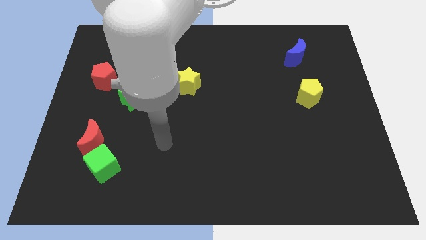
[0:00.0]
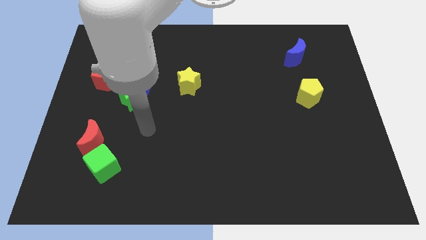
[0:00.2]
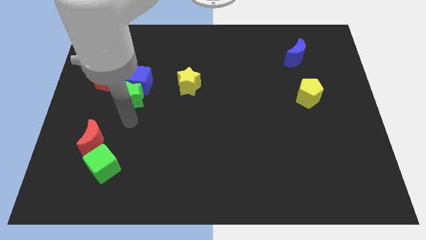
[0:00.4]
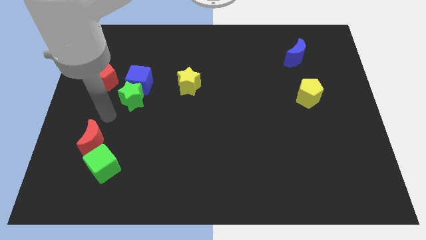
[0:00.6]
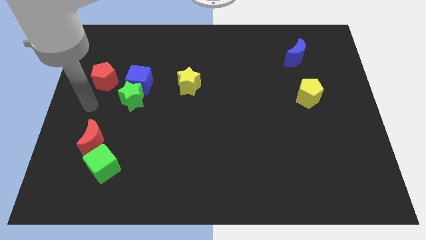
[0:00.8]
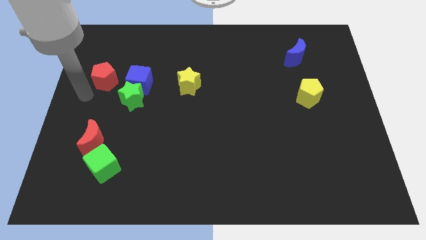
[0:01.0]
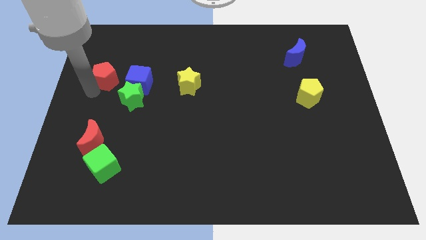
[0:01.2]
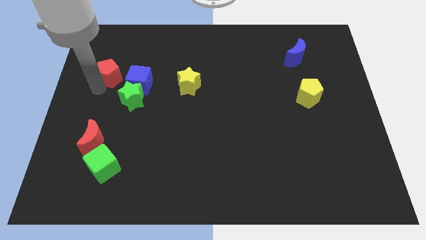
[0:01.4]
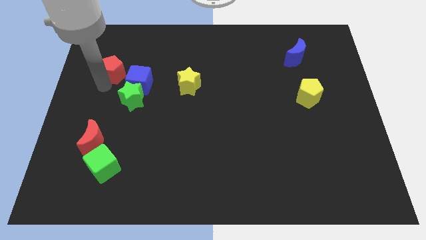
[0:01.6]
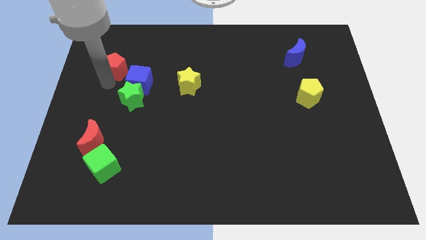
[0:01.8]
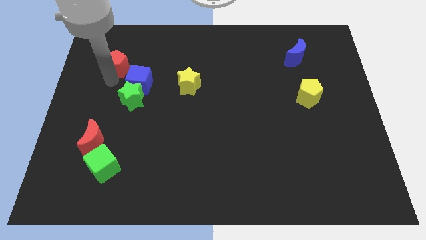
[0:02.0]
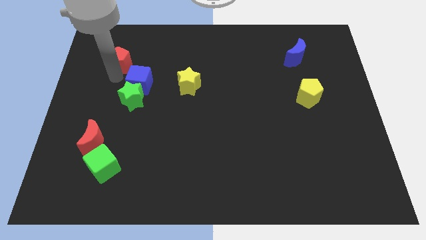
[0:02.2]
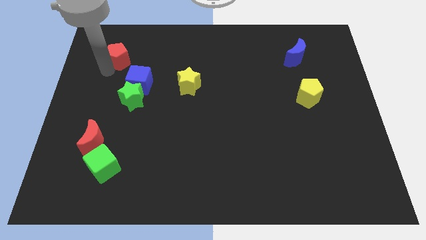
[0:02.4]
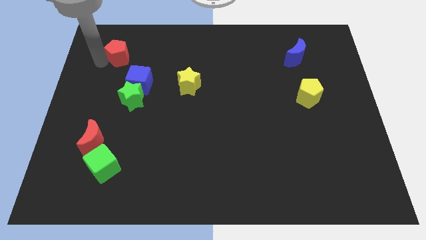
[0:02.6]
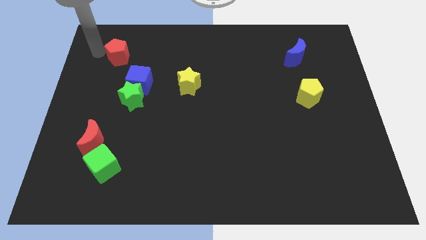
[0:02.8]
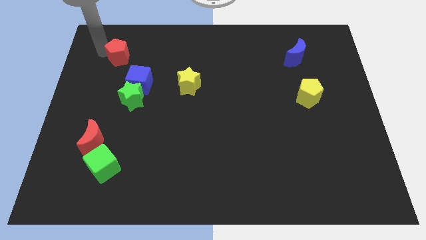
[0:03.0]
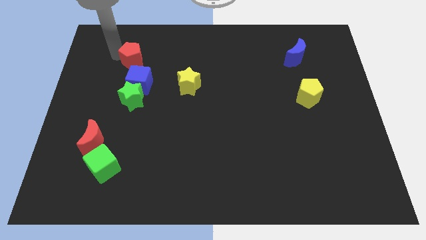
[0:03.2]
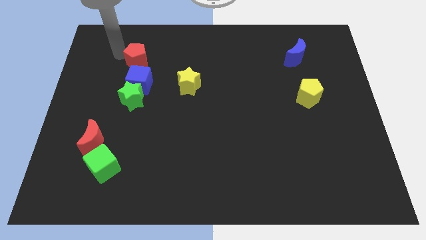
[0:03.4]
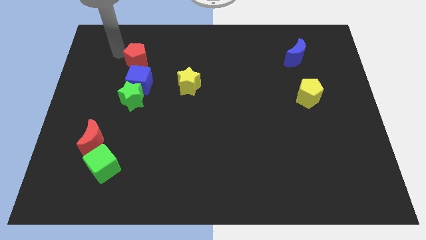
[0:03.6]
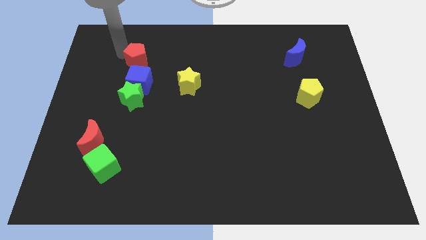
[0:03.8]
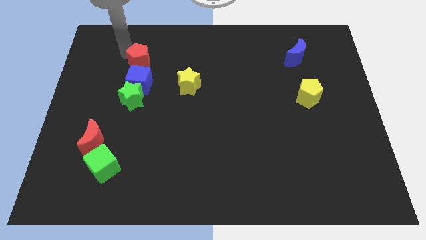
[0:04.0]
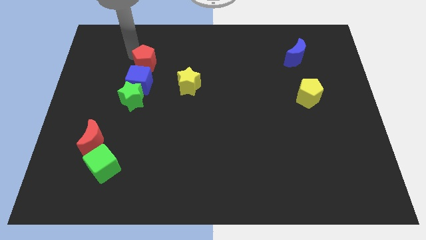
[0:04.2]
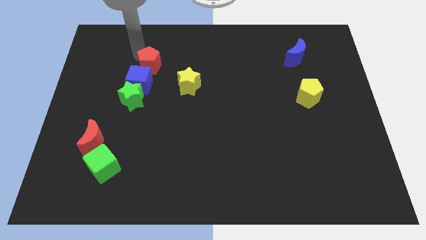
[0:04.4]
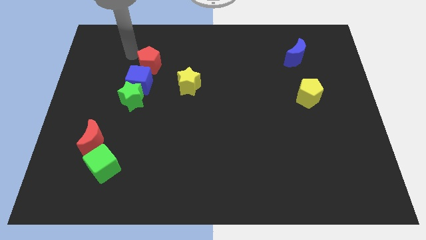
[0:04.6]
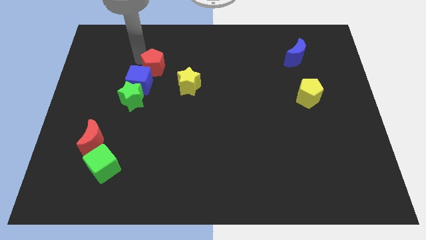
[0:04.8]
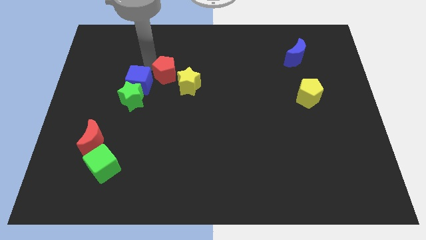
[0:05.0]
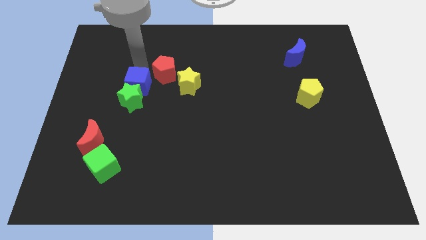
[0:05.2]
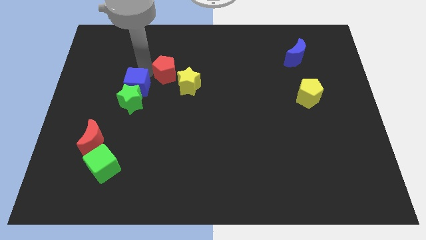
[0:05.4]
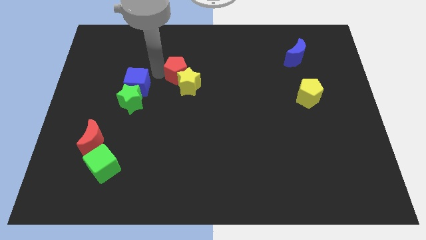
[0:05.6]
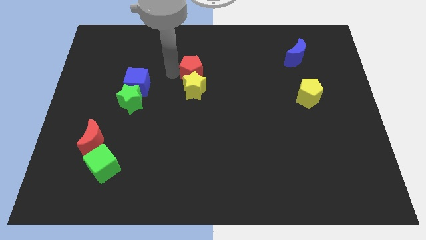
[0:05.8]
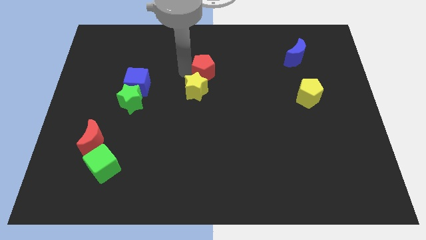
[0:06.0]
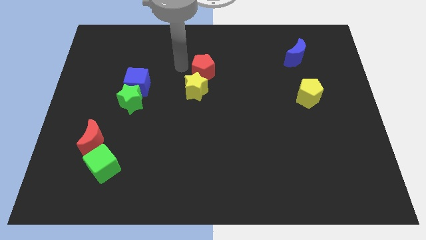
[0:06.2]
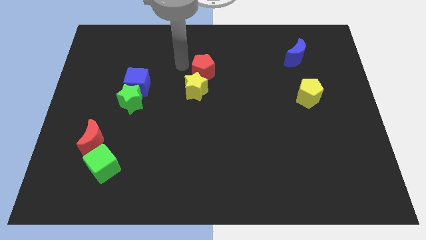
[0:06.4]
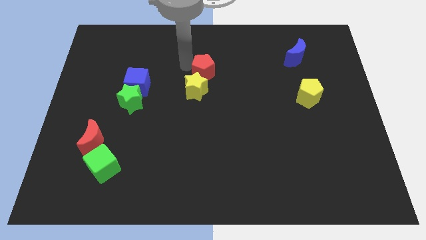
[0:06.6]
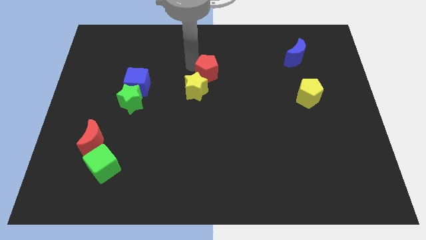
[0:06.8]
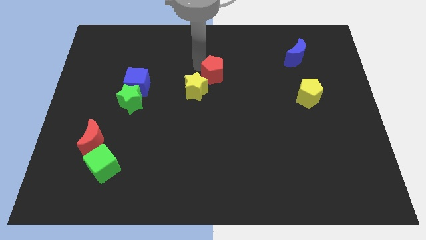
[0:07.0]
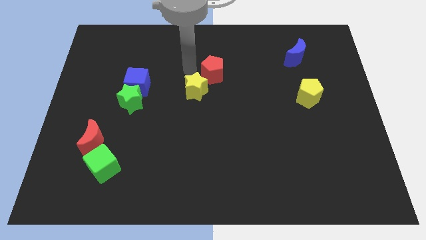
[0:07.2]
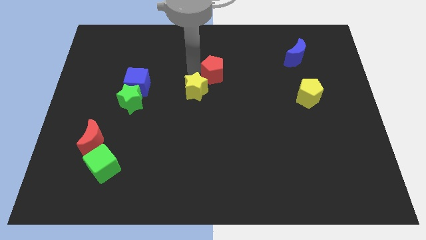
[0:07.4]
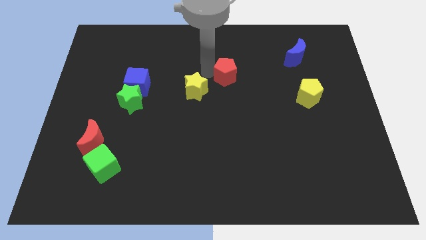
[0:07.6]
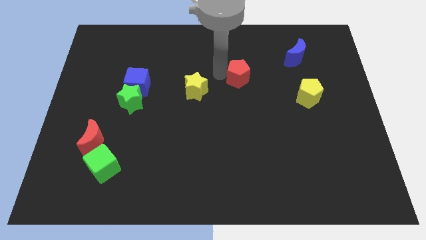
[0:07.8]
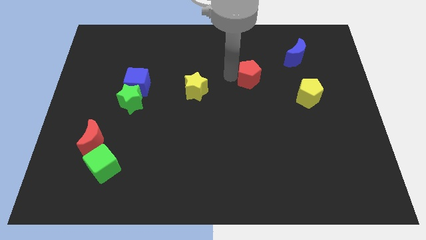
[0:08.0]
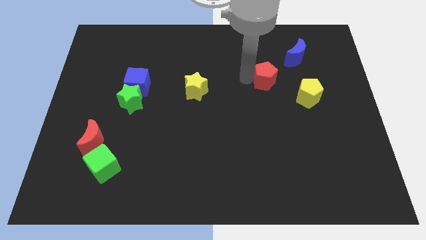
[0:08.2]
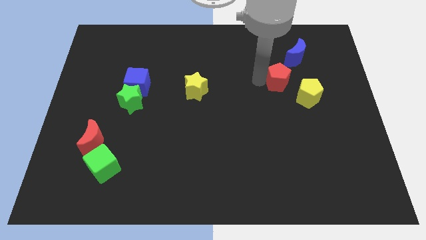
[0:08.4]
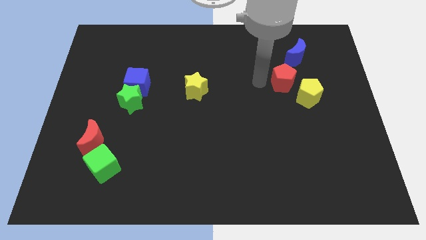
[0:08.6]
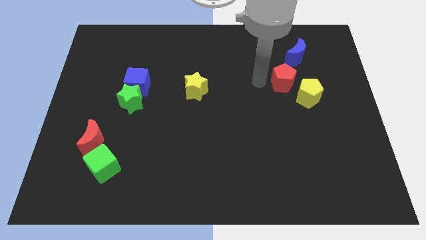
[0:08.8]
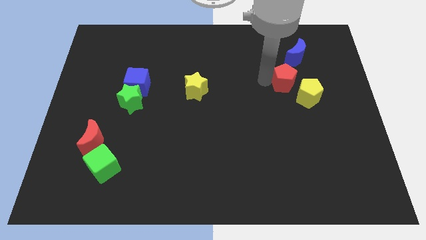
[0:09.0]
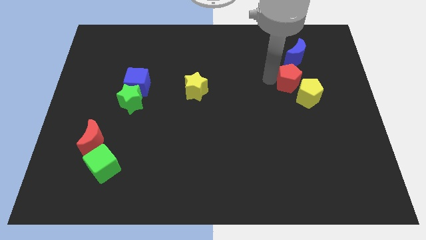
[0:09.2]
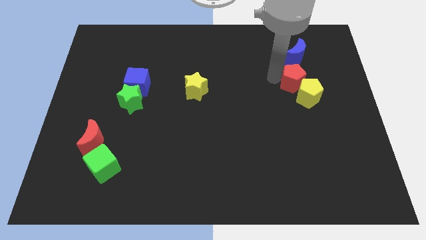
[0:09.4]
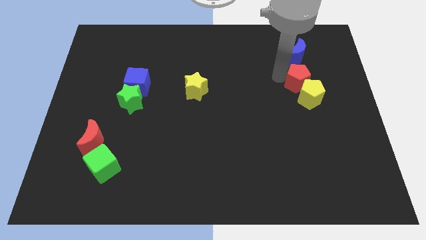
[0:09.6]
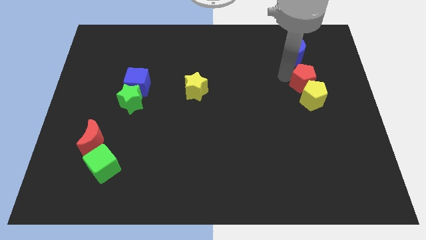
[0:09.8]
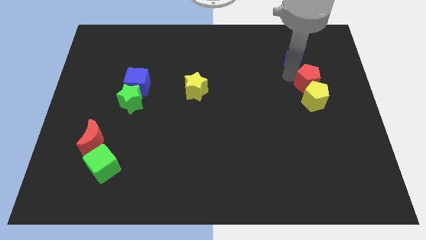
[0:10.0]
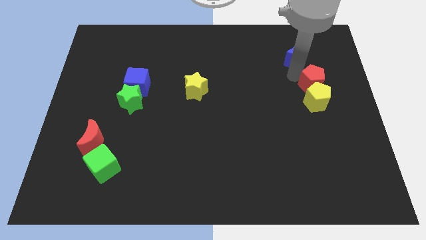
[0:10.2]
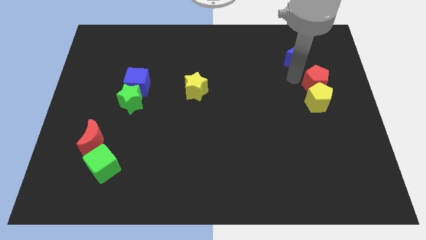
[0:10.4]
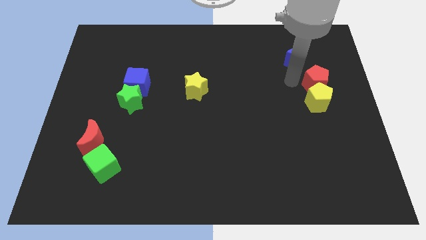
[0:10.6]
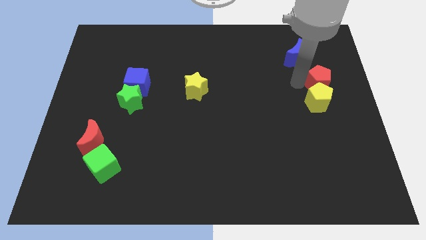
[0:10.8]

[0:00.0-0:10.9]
put the red pentagon to the right side

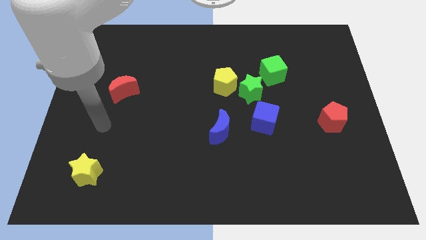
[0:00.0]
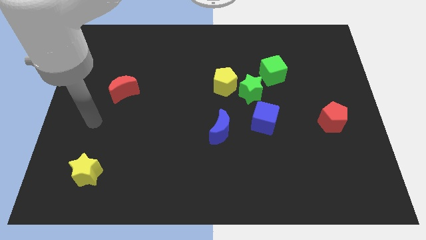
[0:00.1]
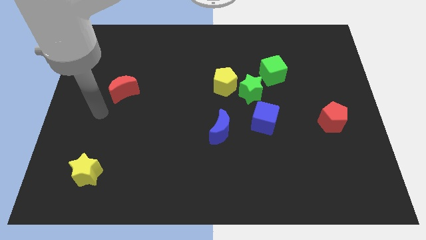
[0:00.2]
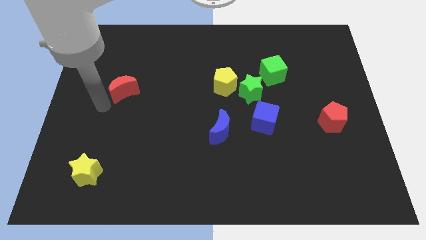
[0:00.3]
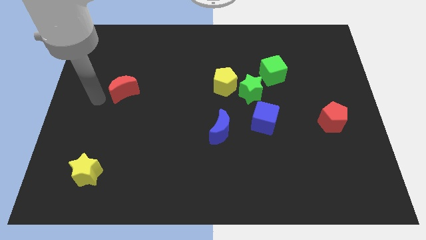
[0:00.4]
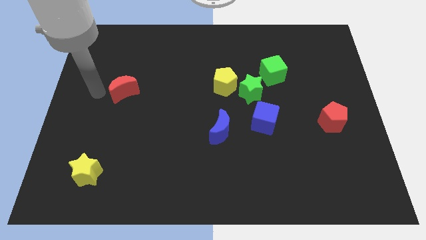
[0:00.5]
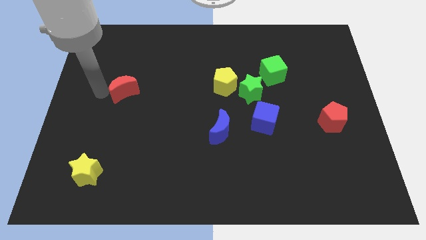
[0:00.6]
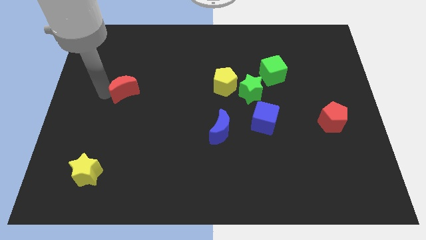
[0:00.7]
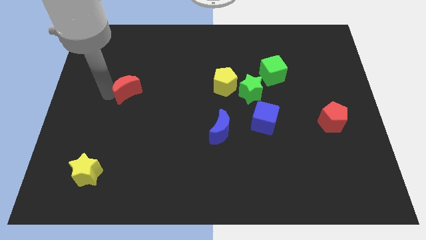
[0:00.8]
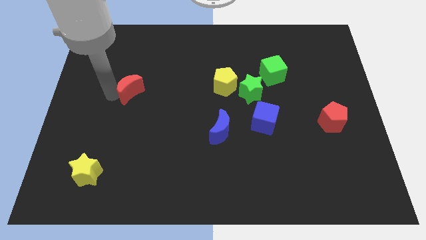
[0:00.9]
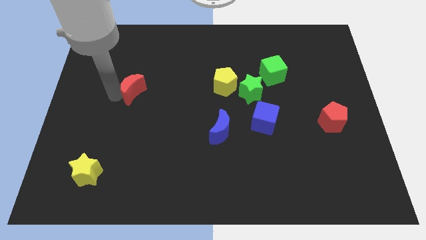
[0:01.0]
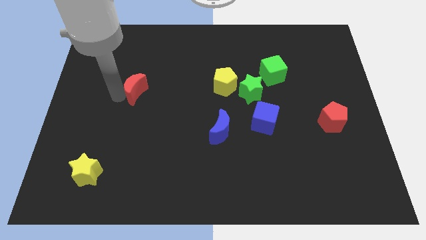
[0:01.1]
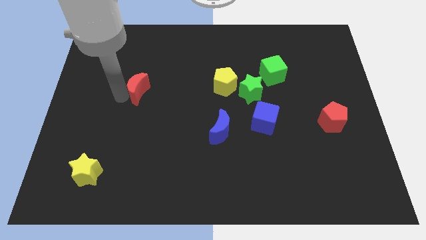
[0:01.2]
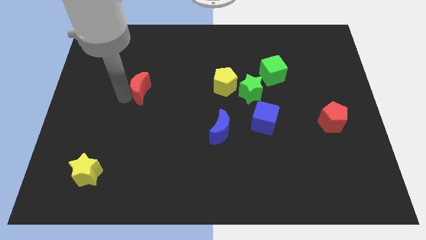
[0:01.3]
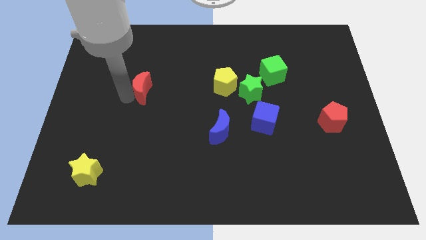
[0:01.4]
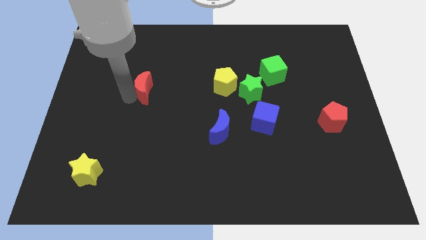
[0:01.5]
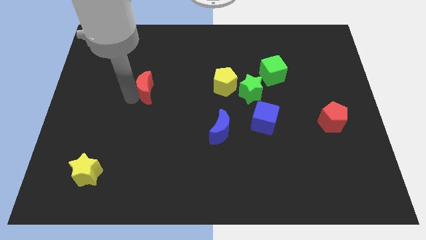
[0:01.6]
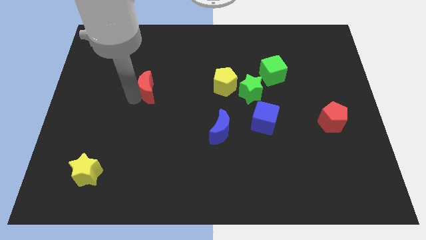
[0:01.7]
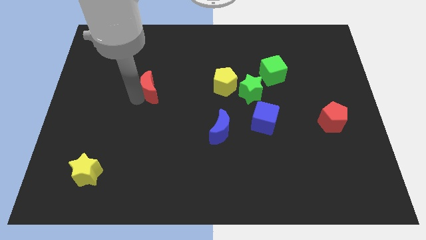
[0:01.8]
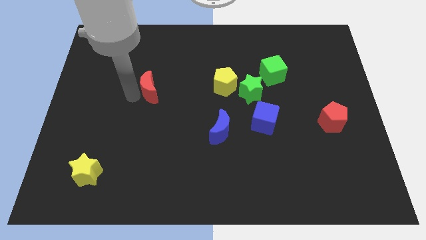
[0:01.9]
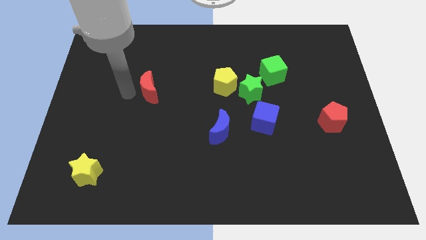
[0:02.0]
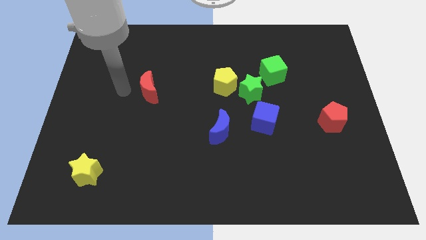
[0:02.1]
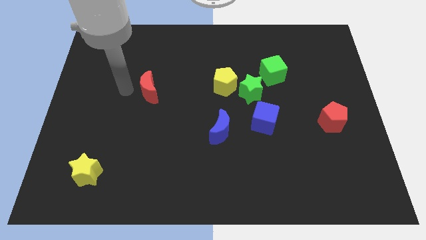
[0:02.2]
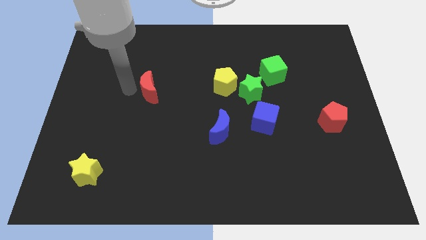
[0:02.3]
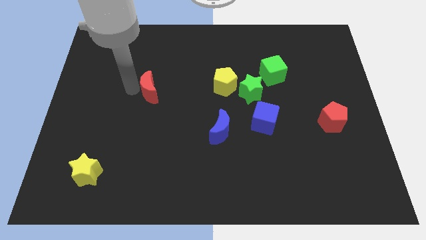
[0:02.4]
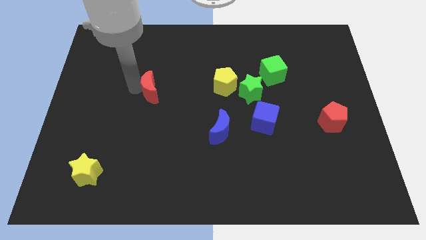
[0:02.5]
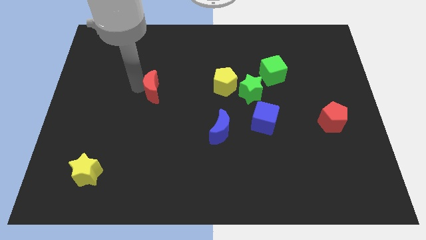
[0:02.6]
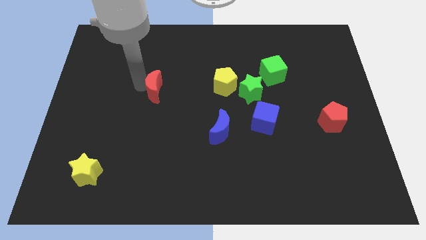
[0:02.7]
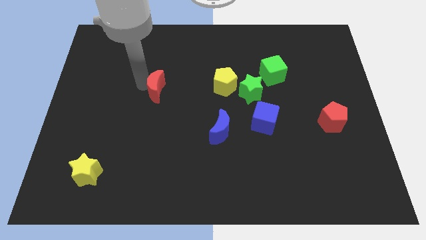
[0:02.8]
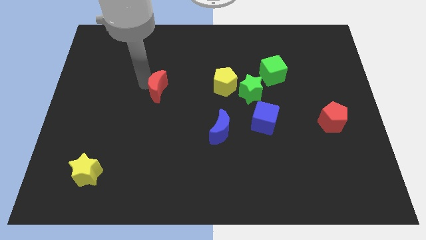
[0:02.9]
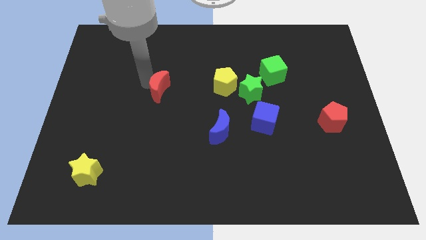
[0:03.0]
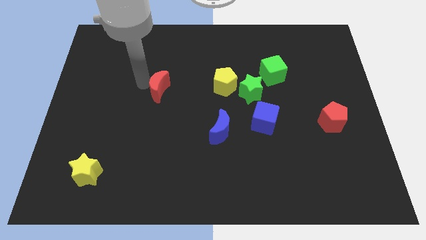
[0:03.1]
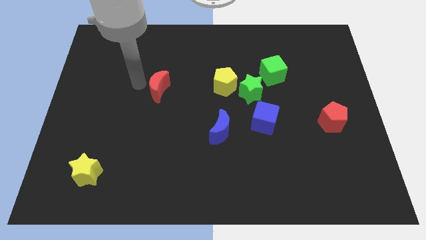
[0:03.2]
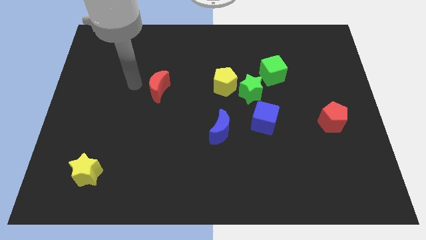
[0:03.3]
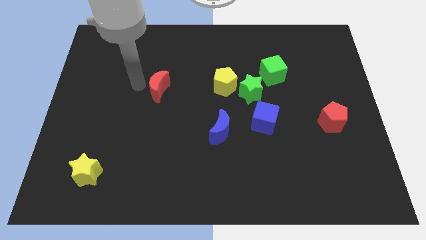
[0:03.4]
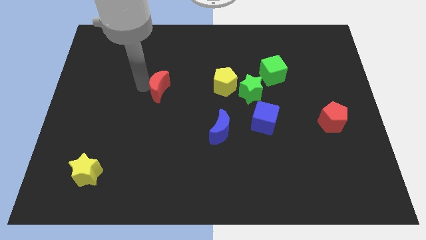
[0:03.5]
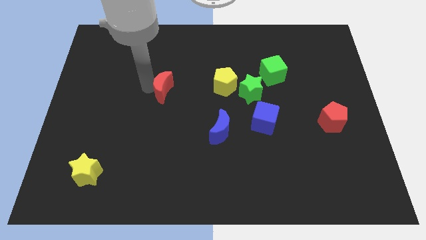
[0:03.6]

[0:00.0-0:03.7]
put the red moon to the center
